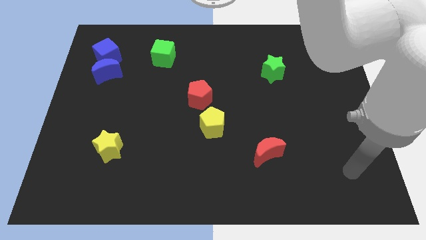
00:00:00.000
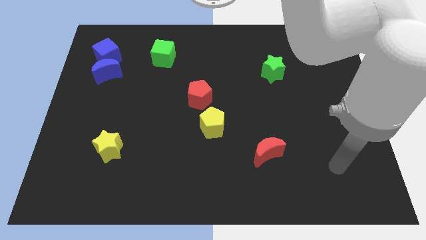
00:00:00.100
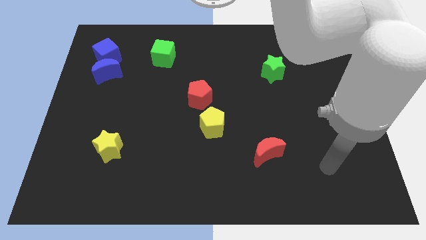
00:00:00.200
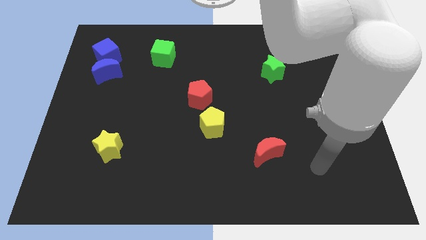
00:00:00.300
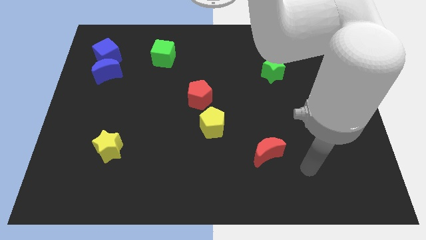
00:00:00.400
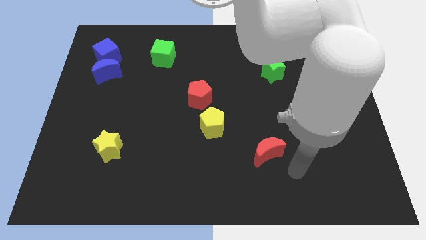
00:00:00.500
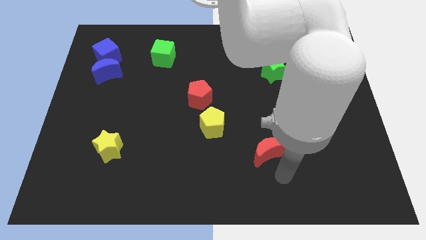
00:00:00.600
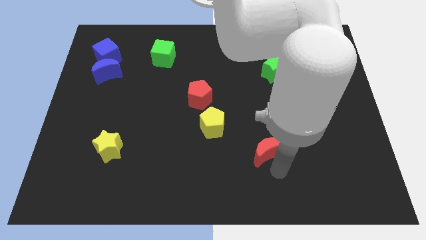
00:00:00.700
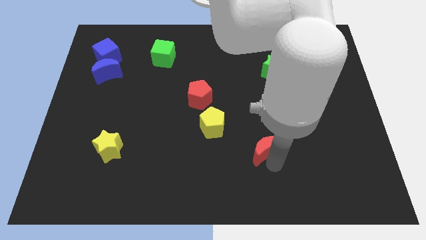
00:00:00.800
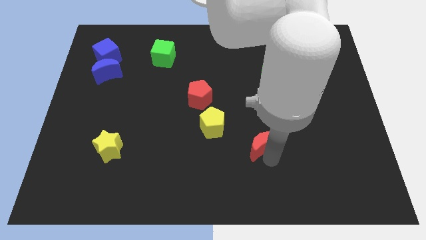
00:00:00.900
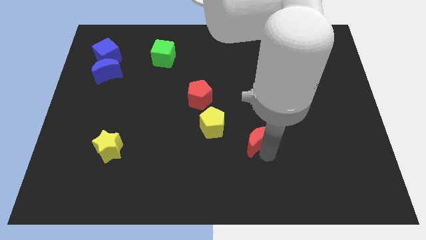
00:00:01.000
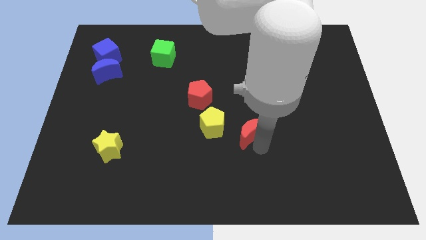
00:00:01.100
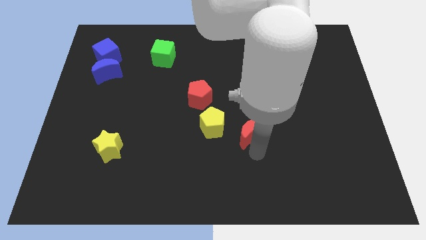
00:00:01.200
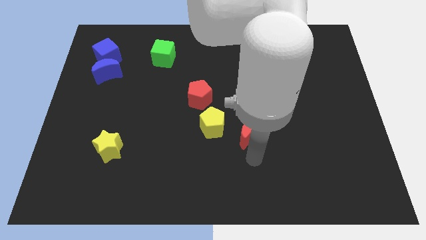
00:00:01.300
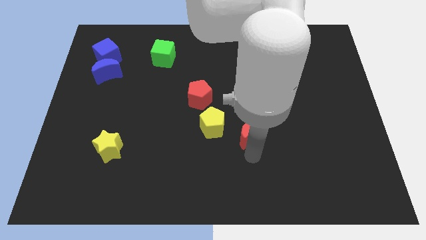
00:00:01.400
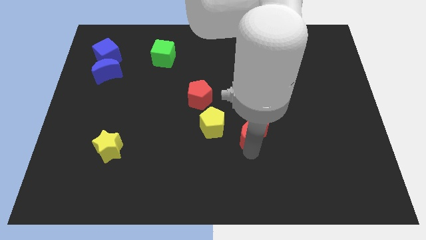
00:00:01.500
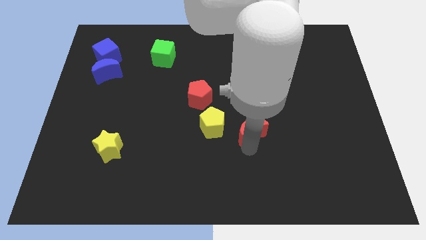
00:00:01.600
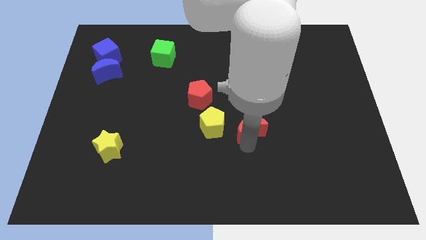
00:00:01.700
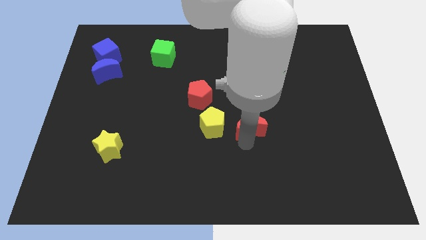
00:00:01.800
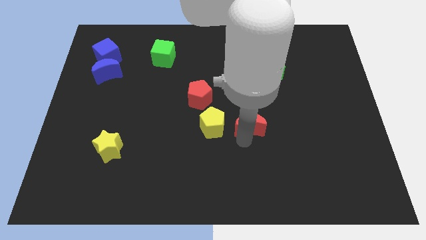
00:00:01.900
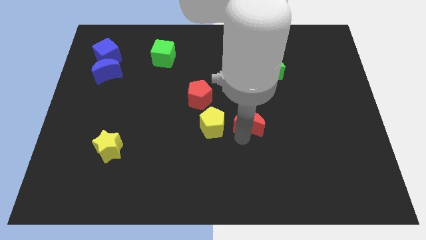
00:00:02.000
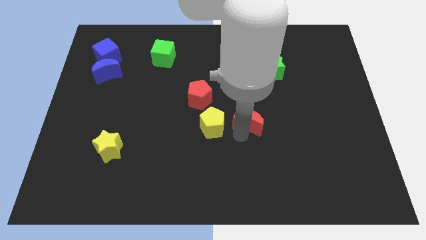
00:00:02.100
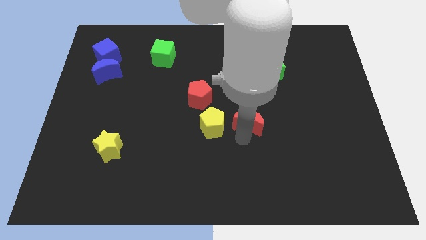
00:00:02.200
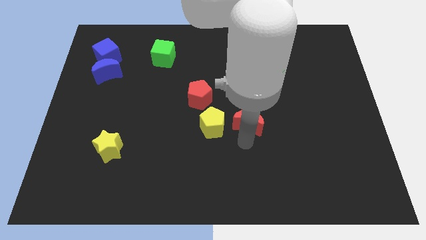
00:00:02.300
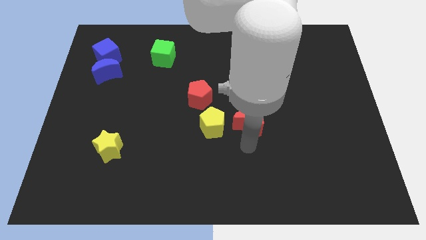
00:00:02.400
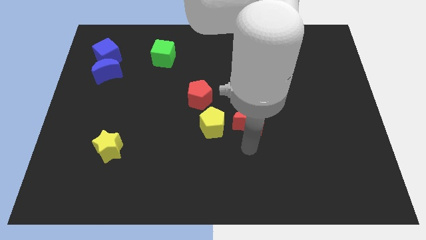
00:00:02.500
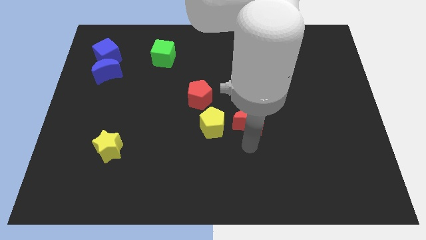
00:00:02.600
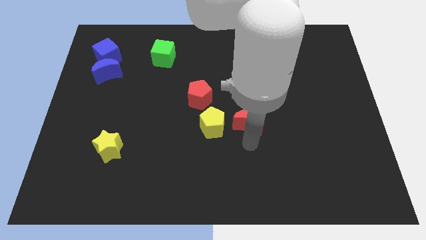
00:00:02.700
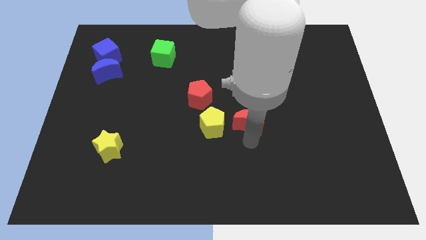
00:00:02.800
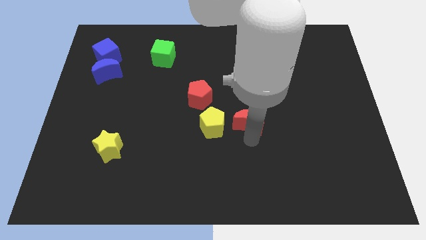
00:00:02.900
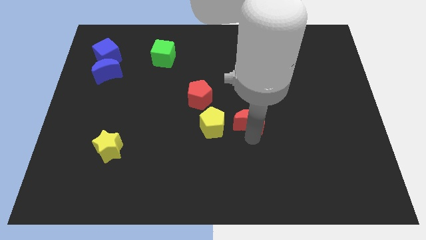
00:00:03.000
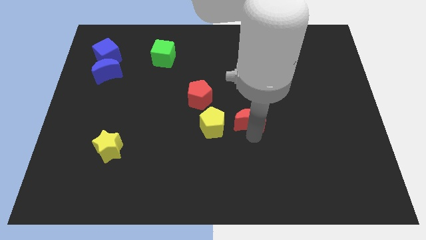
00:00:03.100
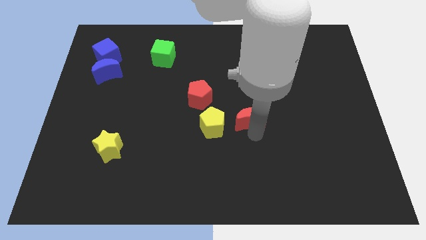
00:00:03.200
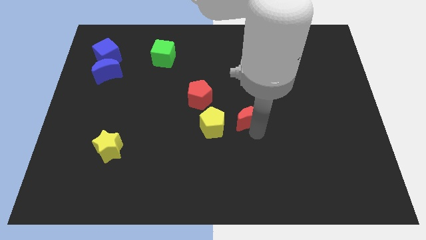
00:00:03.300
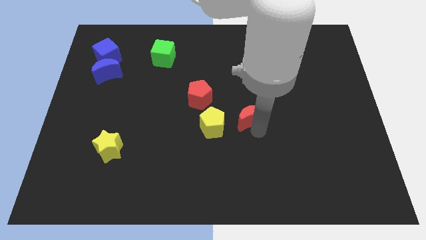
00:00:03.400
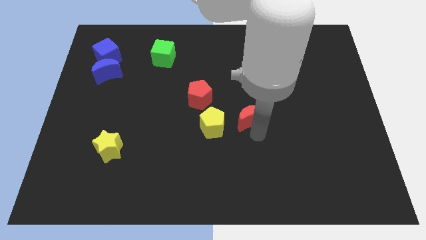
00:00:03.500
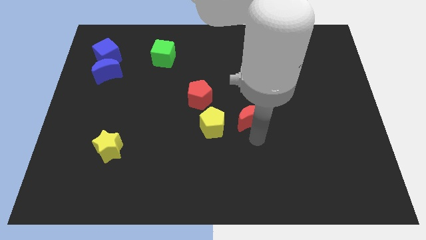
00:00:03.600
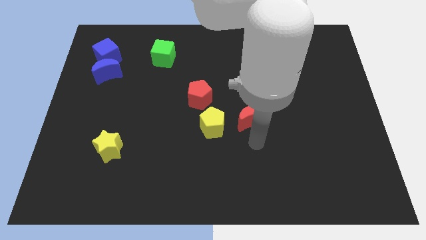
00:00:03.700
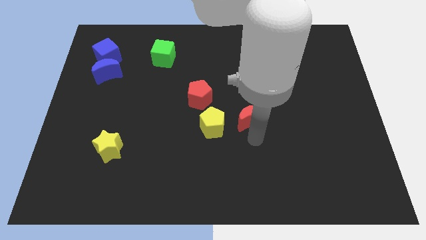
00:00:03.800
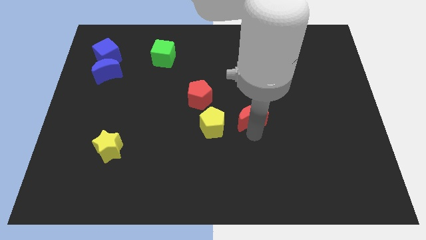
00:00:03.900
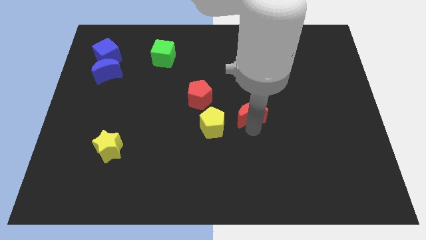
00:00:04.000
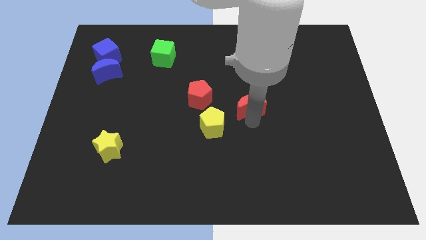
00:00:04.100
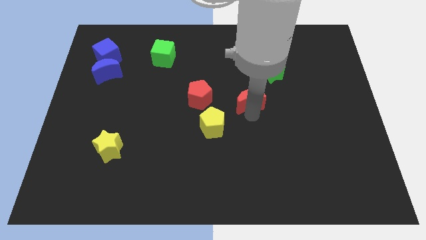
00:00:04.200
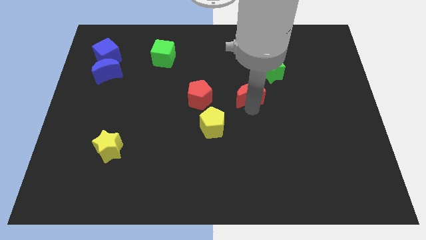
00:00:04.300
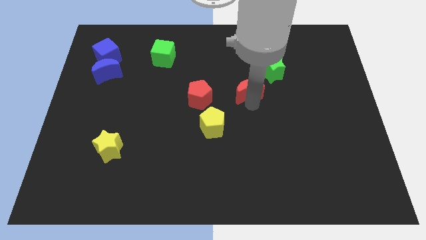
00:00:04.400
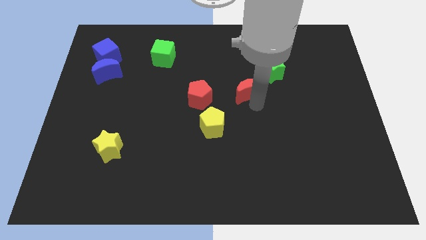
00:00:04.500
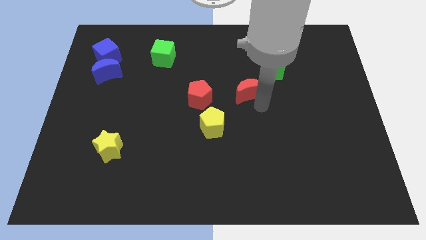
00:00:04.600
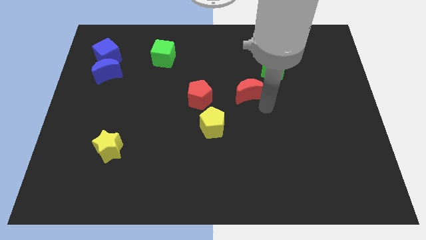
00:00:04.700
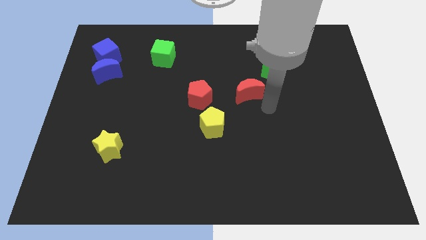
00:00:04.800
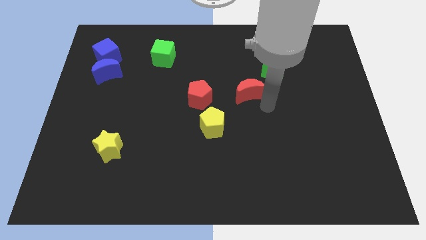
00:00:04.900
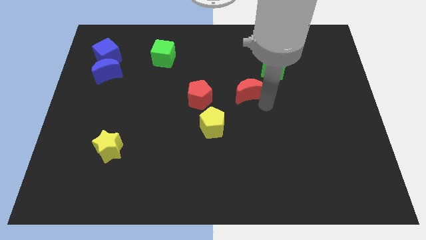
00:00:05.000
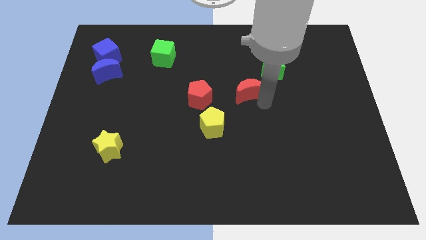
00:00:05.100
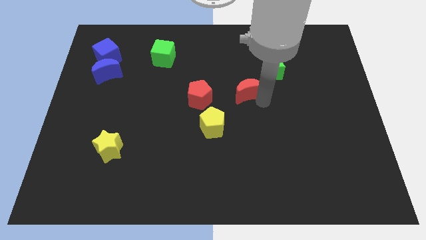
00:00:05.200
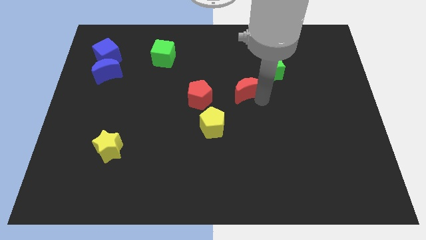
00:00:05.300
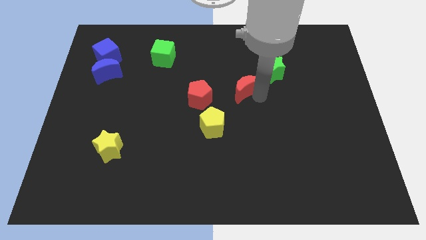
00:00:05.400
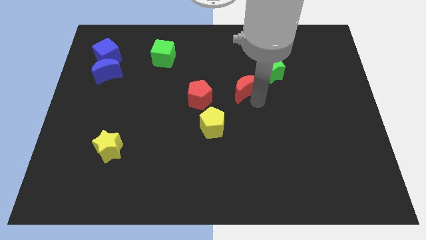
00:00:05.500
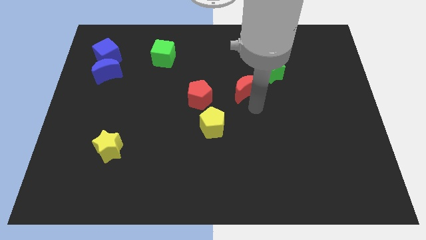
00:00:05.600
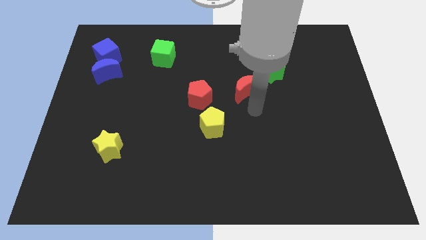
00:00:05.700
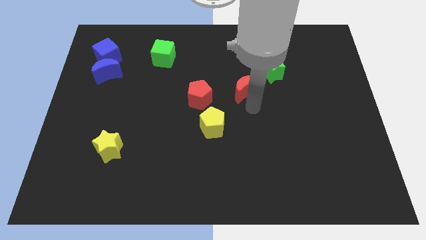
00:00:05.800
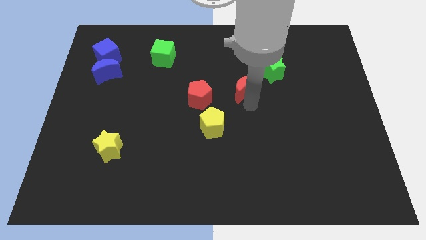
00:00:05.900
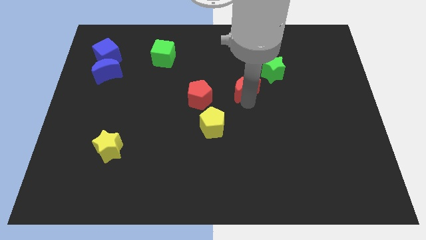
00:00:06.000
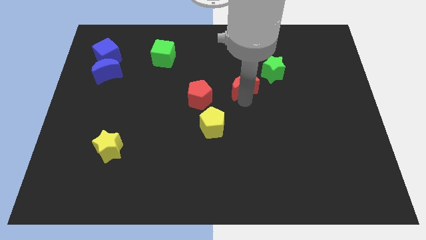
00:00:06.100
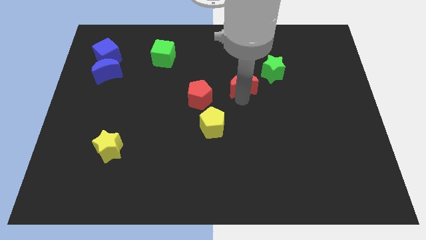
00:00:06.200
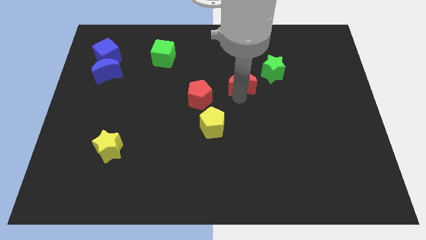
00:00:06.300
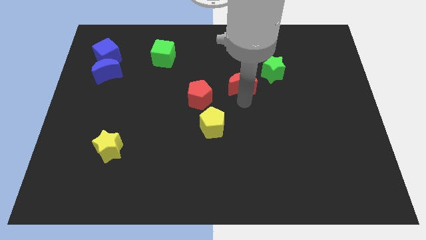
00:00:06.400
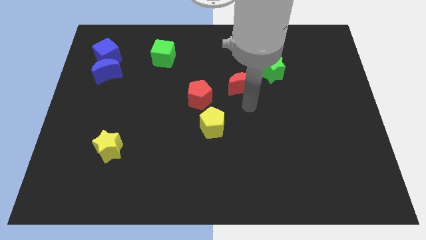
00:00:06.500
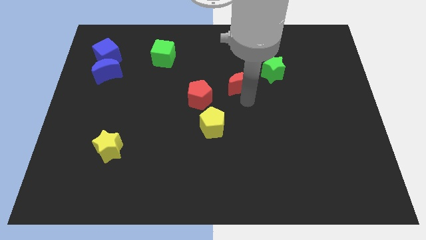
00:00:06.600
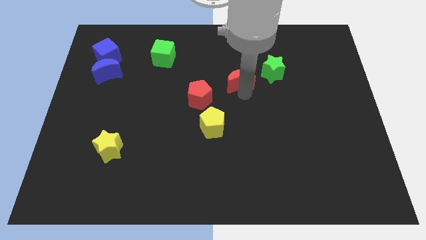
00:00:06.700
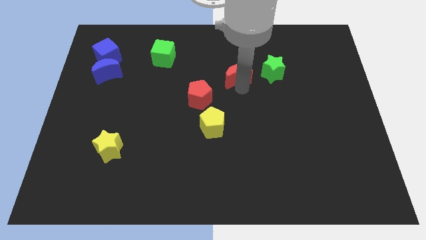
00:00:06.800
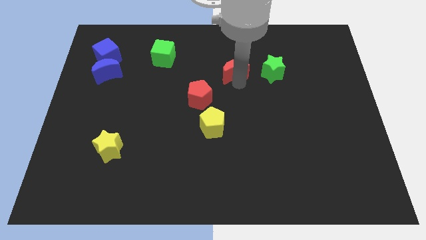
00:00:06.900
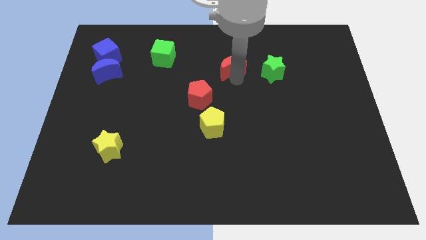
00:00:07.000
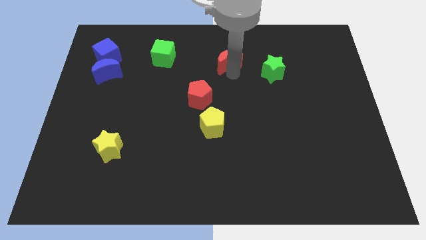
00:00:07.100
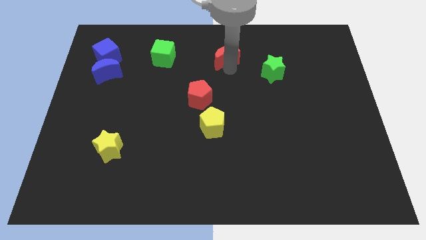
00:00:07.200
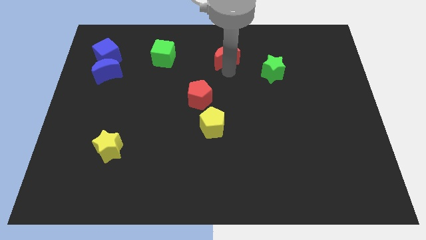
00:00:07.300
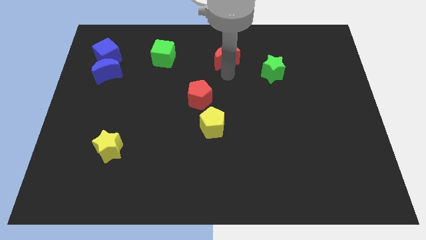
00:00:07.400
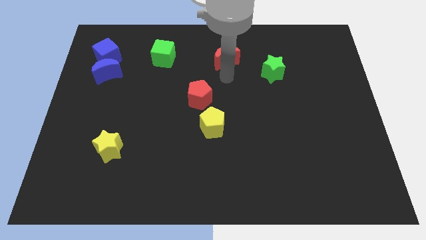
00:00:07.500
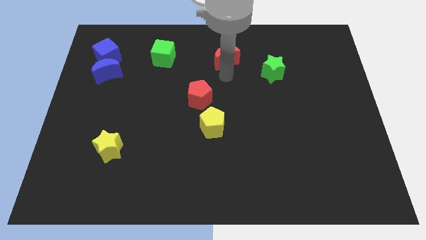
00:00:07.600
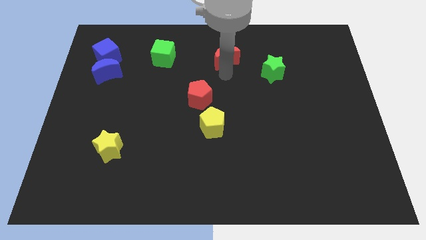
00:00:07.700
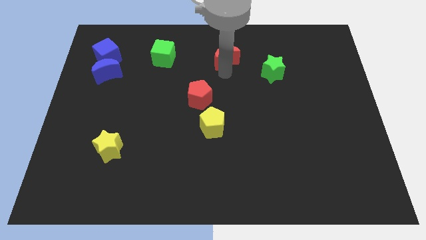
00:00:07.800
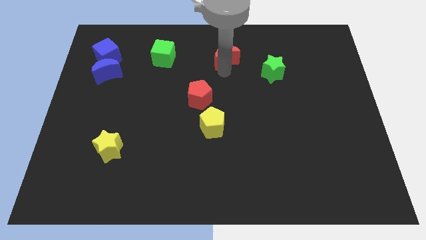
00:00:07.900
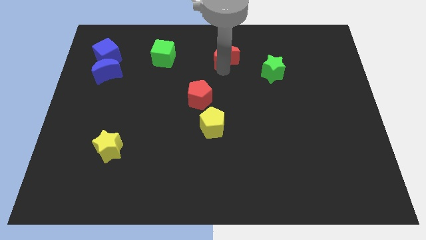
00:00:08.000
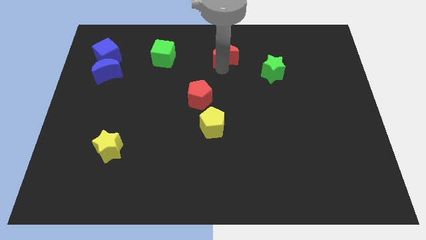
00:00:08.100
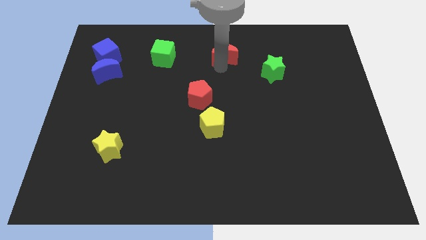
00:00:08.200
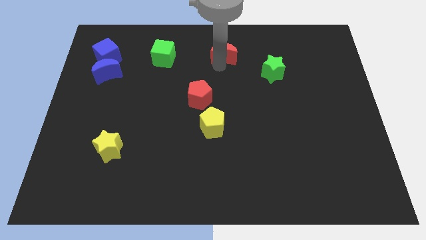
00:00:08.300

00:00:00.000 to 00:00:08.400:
put the red moon to the top side
